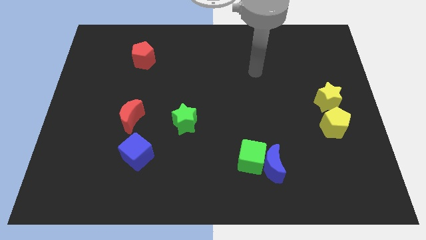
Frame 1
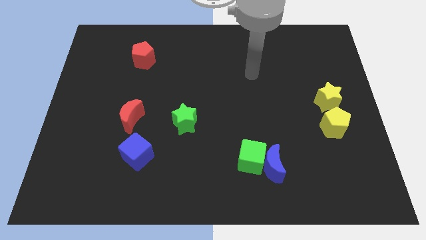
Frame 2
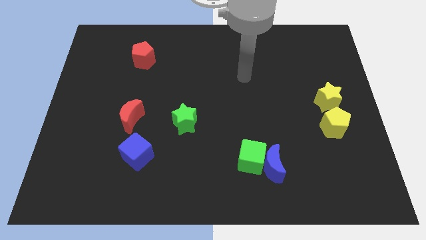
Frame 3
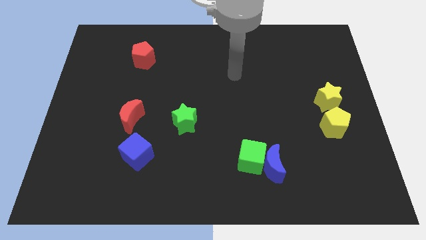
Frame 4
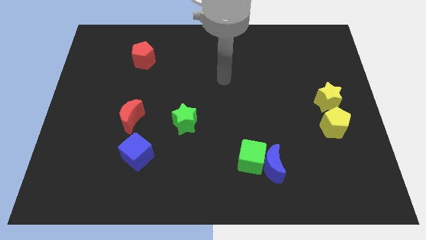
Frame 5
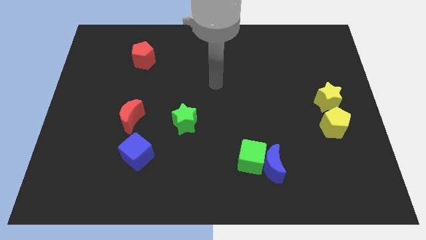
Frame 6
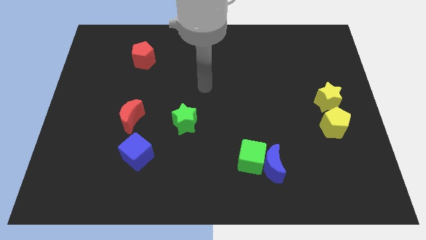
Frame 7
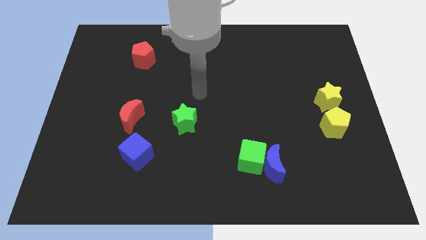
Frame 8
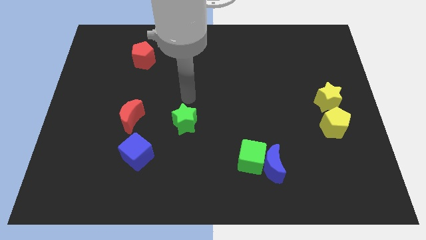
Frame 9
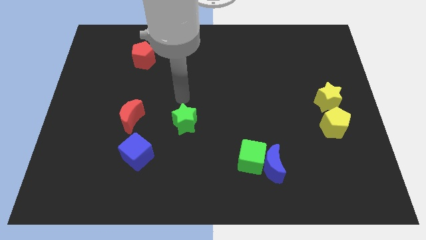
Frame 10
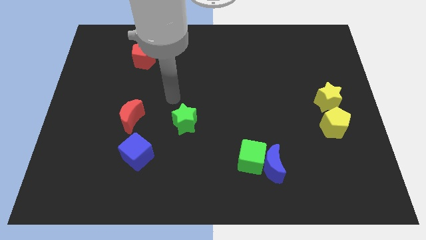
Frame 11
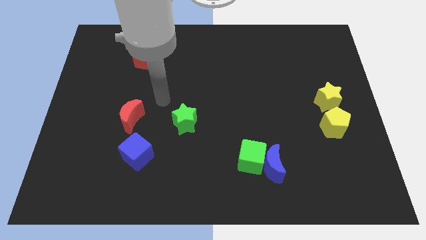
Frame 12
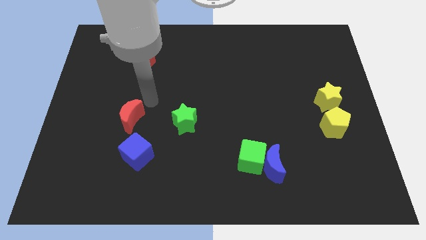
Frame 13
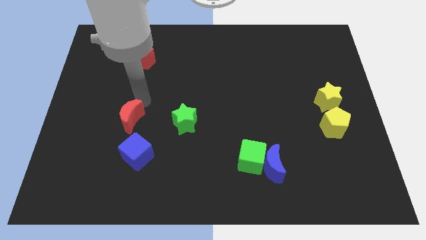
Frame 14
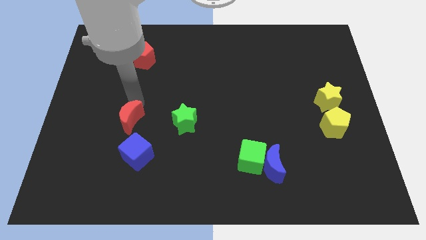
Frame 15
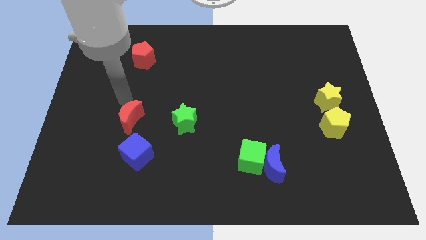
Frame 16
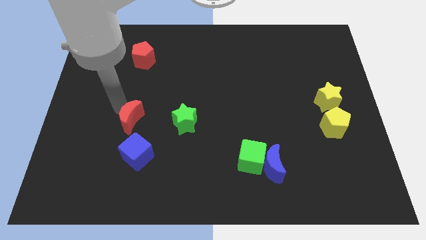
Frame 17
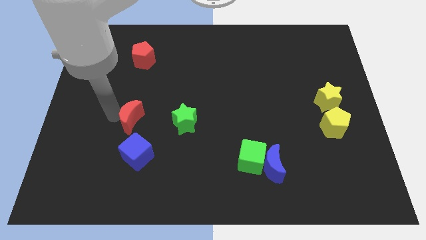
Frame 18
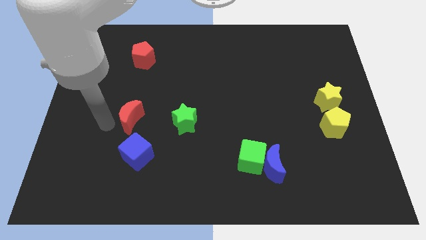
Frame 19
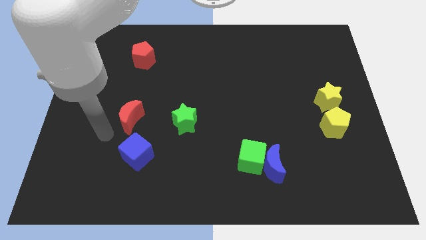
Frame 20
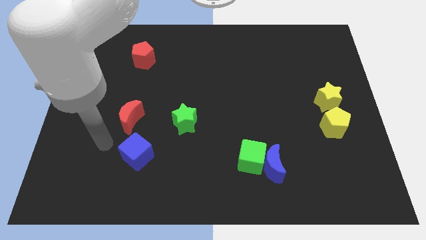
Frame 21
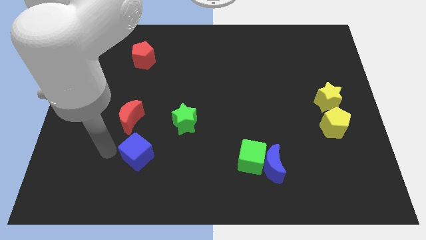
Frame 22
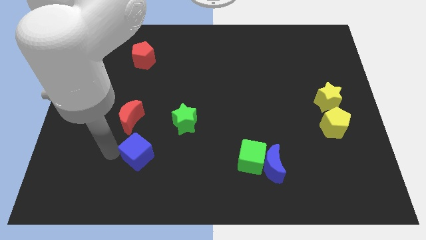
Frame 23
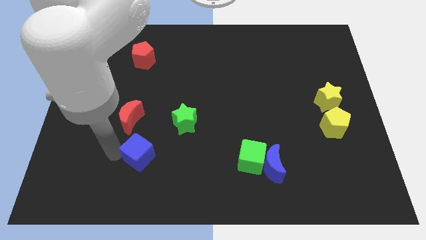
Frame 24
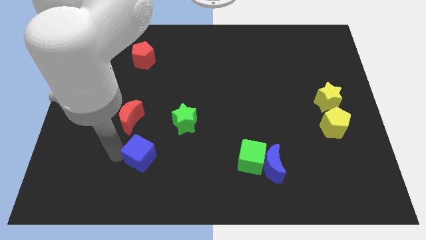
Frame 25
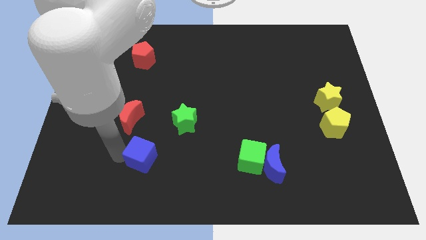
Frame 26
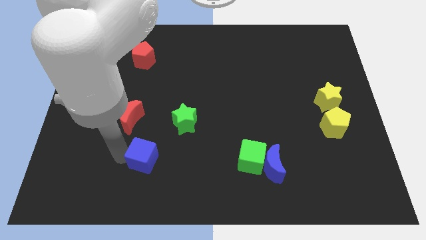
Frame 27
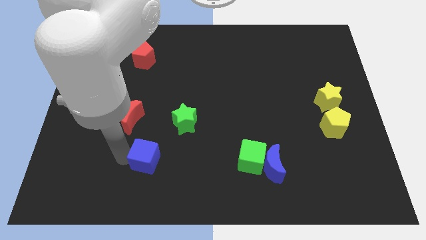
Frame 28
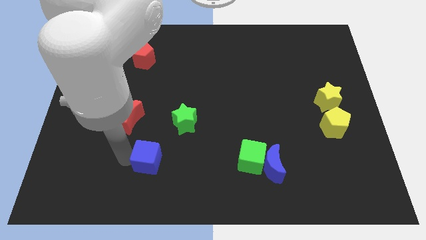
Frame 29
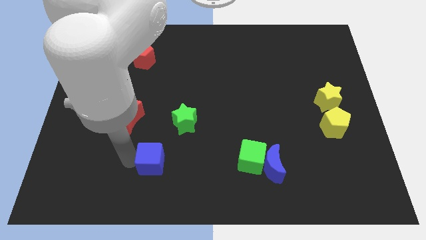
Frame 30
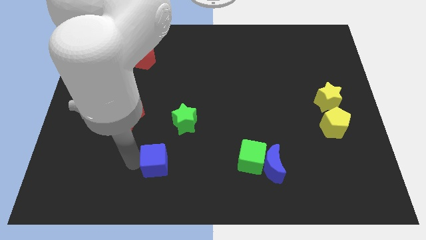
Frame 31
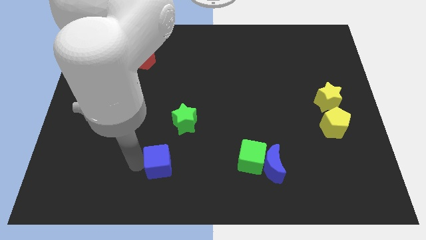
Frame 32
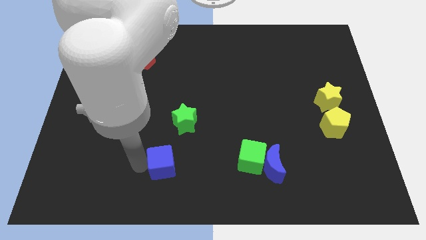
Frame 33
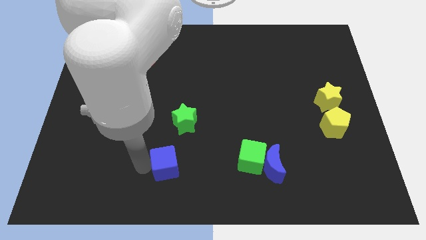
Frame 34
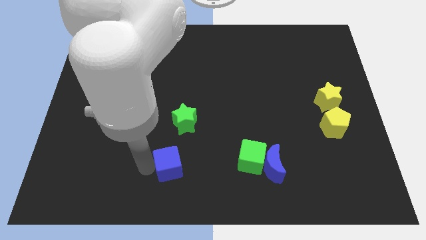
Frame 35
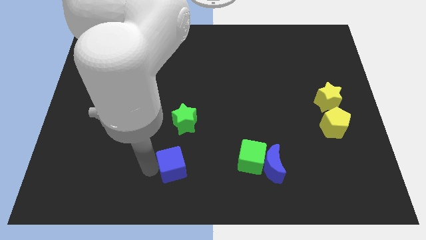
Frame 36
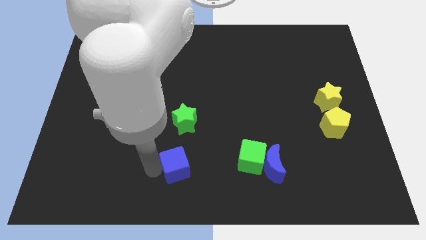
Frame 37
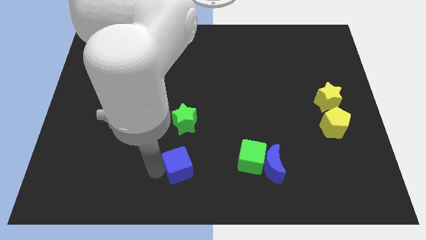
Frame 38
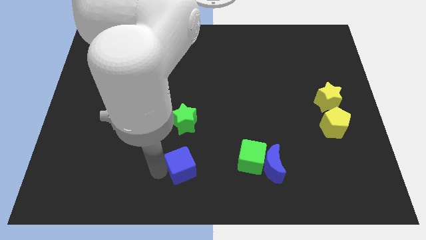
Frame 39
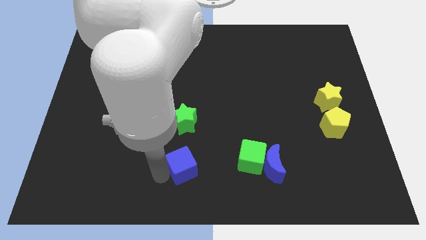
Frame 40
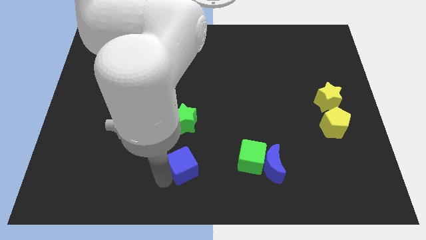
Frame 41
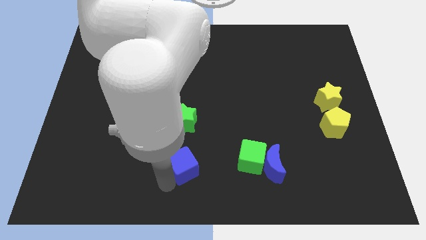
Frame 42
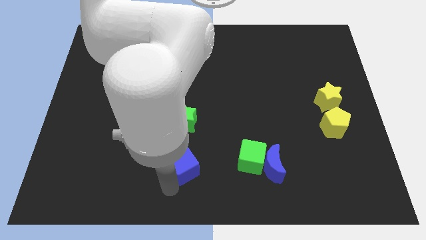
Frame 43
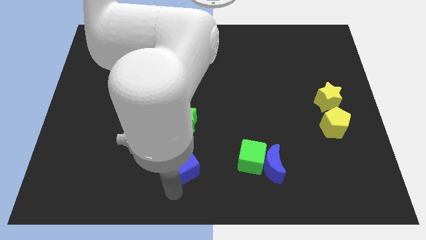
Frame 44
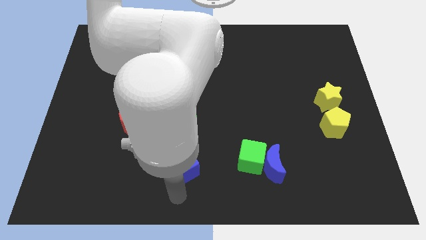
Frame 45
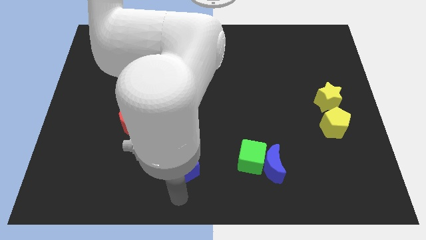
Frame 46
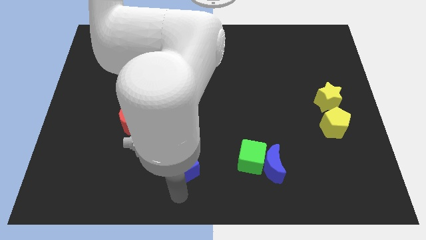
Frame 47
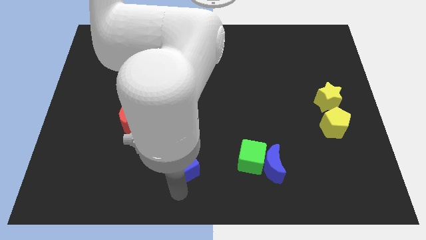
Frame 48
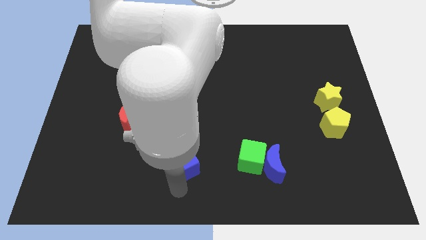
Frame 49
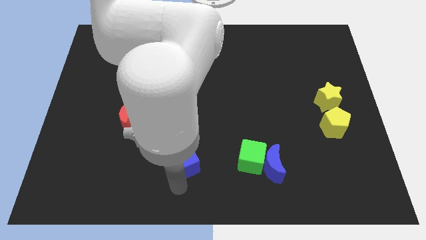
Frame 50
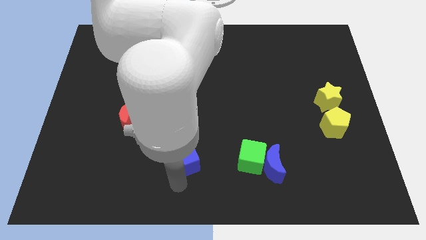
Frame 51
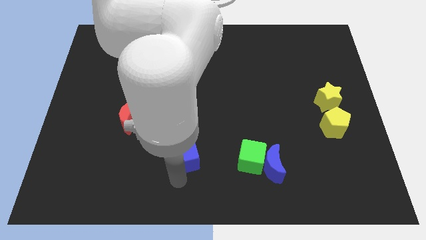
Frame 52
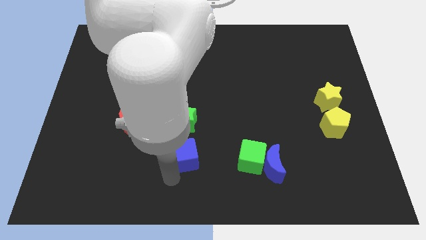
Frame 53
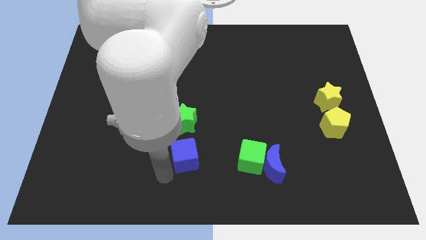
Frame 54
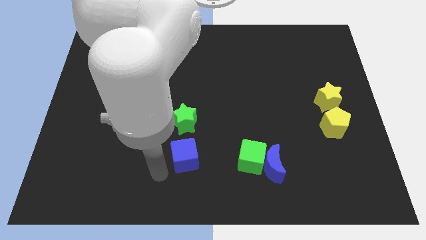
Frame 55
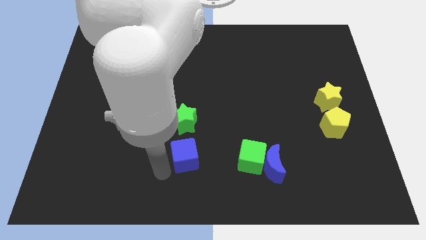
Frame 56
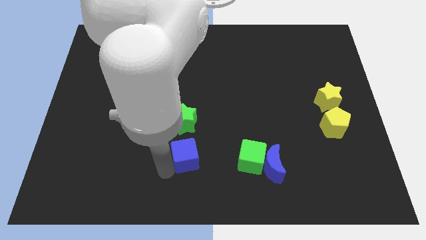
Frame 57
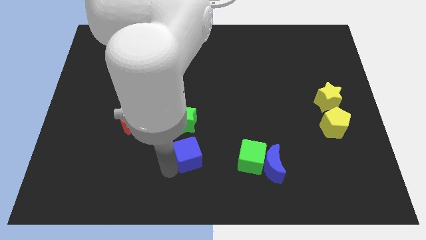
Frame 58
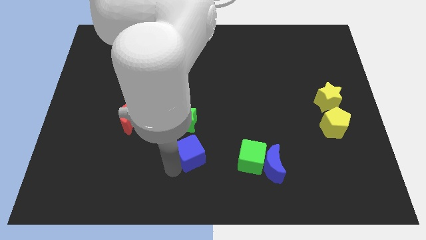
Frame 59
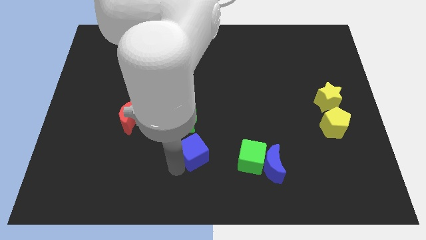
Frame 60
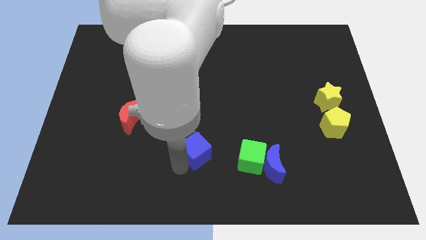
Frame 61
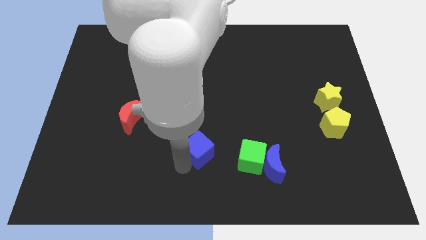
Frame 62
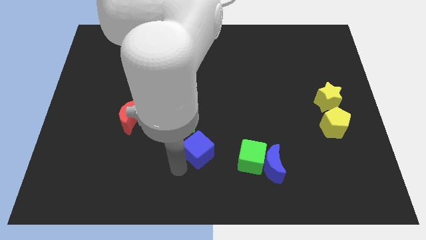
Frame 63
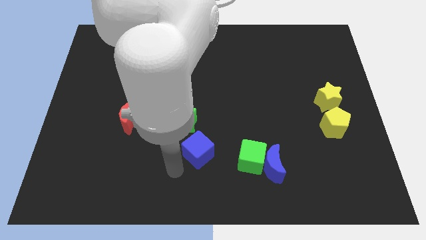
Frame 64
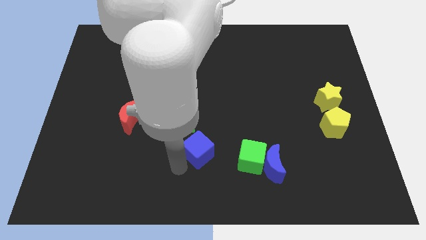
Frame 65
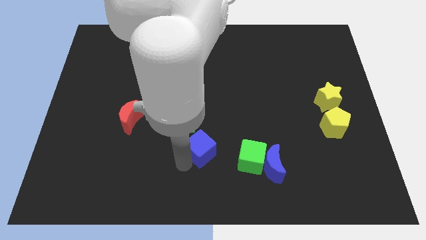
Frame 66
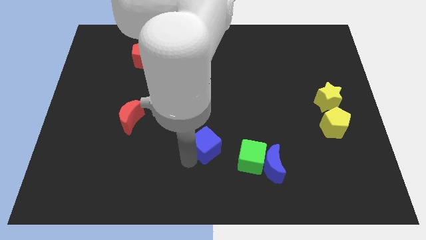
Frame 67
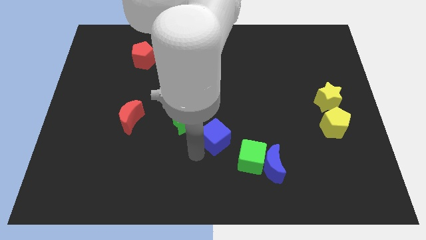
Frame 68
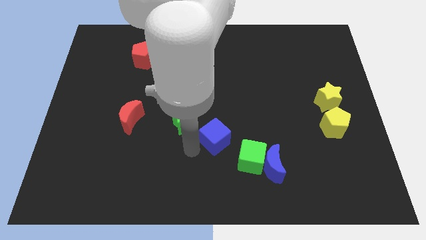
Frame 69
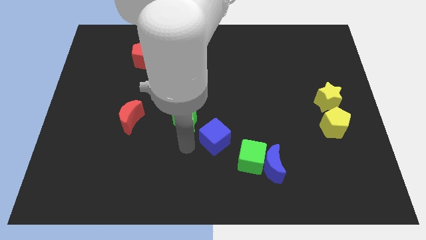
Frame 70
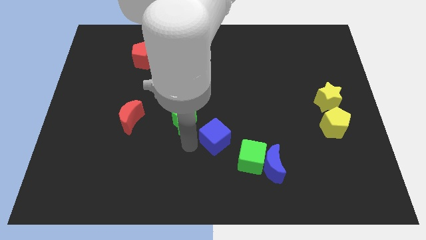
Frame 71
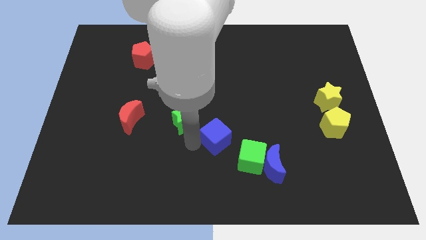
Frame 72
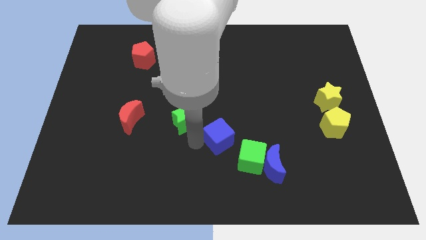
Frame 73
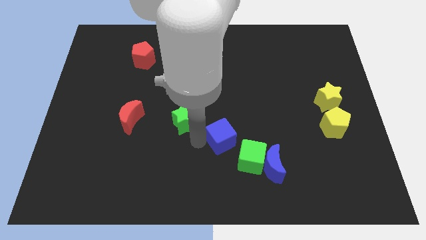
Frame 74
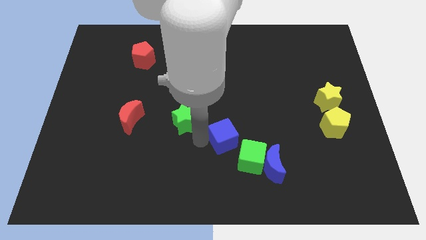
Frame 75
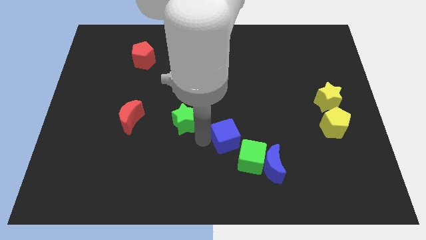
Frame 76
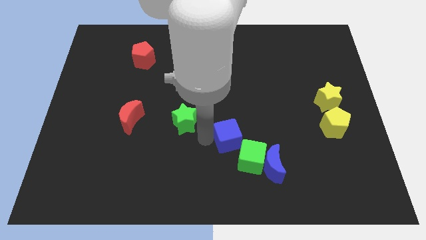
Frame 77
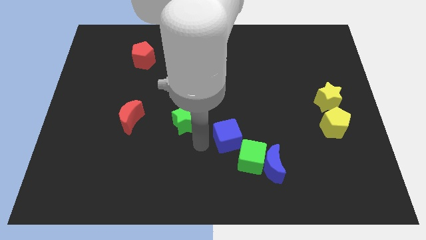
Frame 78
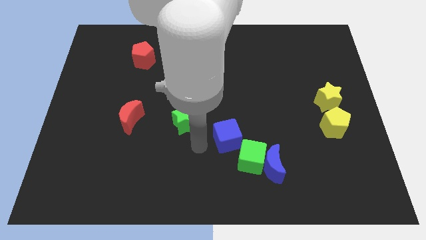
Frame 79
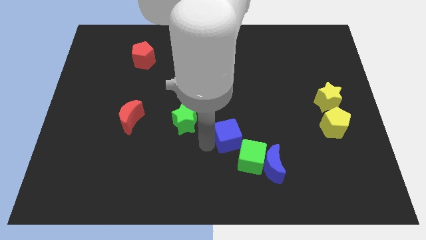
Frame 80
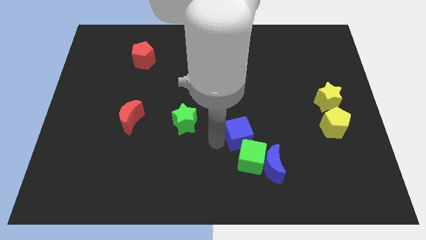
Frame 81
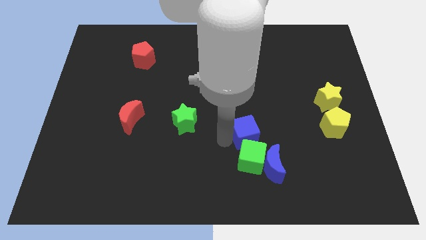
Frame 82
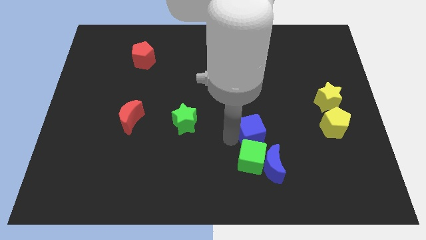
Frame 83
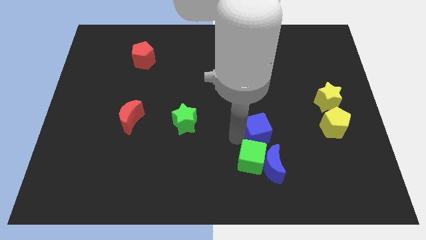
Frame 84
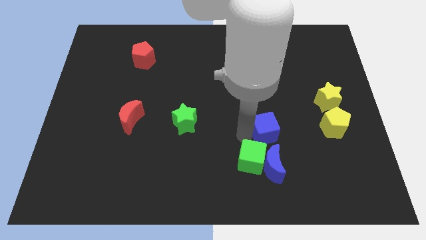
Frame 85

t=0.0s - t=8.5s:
put the blue cube to the left side of the yellow pentagon
